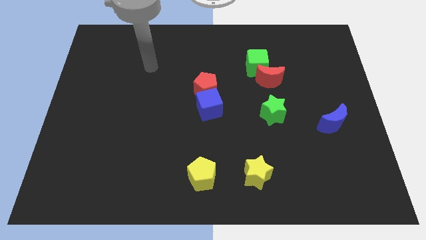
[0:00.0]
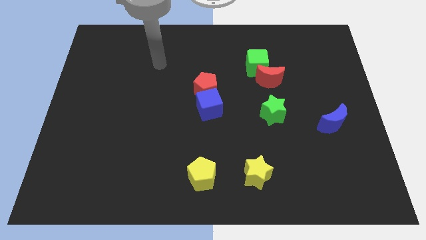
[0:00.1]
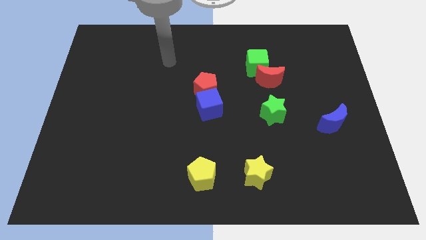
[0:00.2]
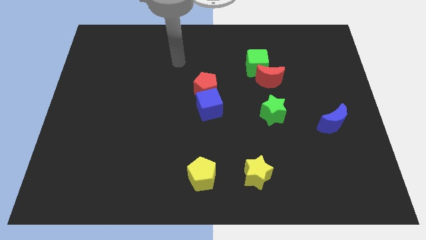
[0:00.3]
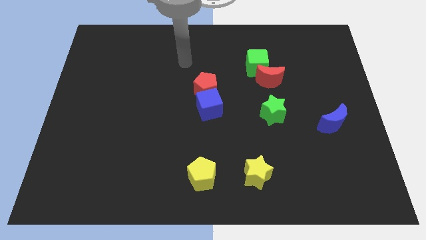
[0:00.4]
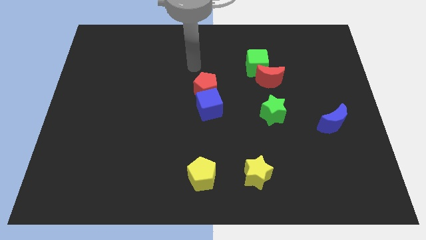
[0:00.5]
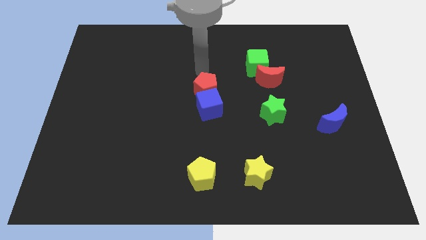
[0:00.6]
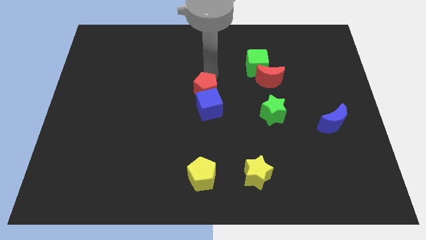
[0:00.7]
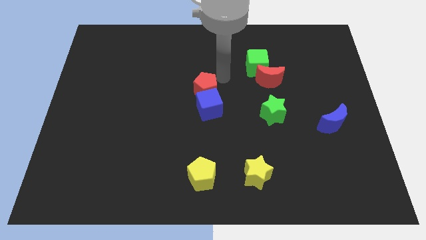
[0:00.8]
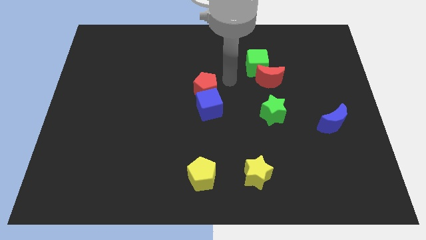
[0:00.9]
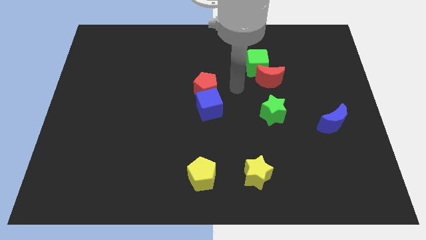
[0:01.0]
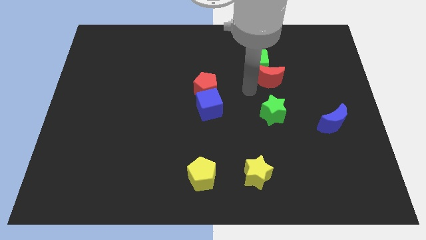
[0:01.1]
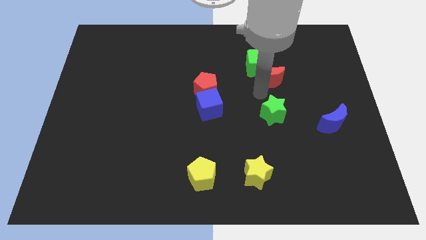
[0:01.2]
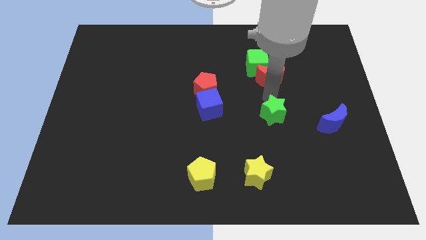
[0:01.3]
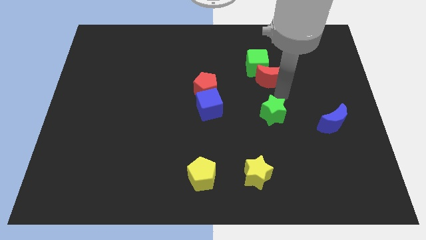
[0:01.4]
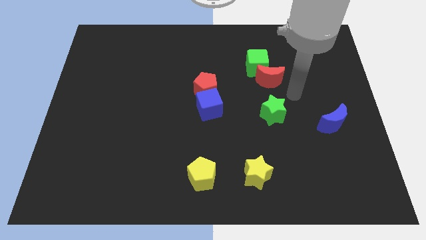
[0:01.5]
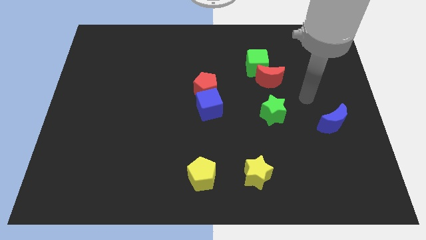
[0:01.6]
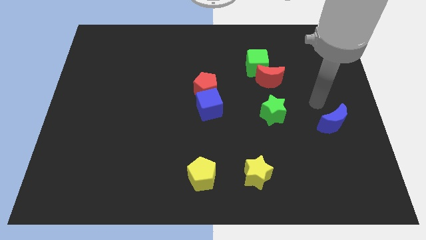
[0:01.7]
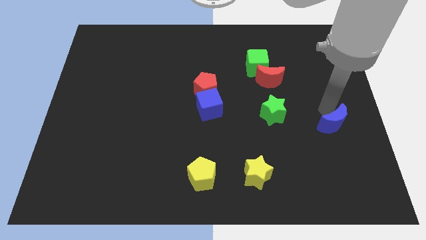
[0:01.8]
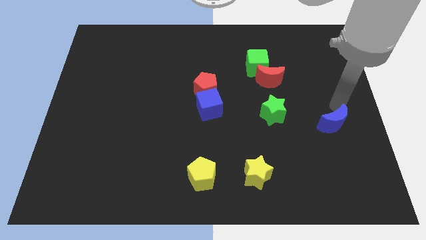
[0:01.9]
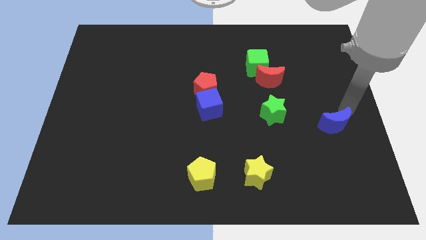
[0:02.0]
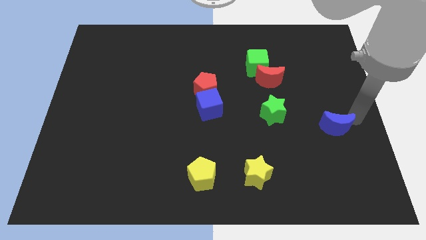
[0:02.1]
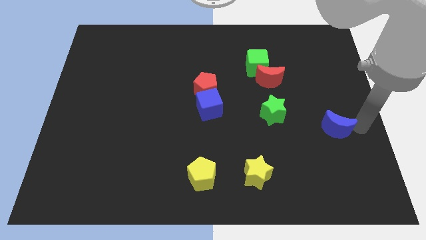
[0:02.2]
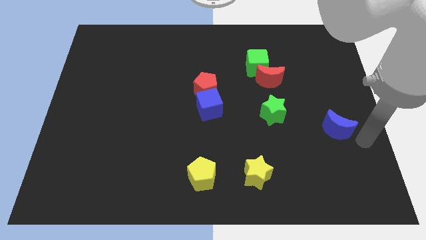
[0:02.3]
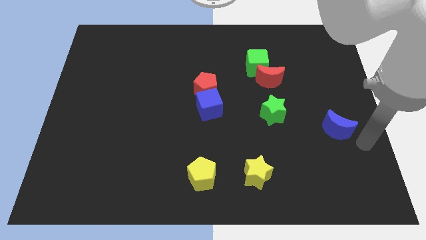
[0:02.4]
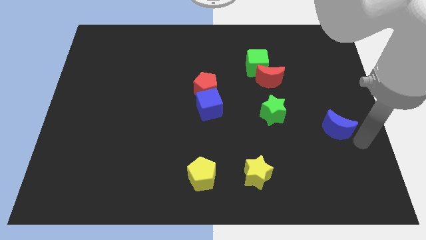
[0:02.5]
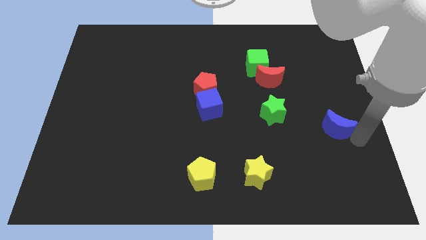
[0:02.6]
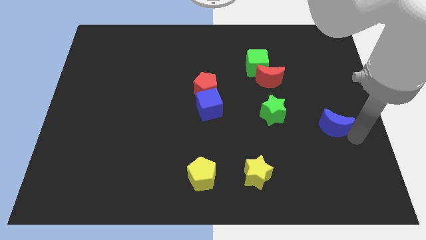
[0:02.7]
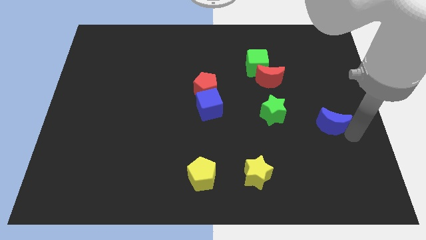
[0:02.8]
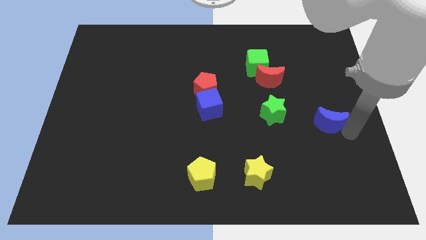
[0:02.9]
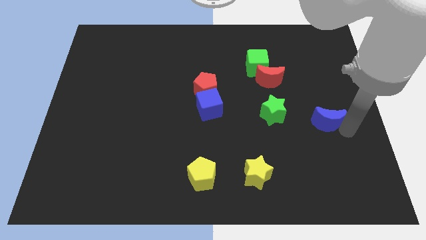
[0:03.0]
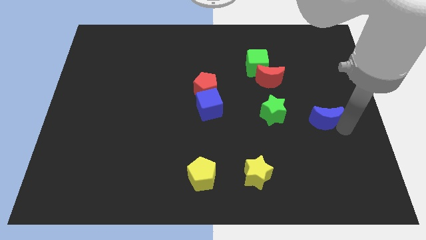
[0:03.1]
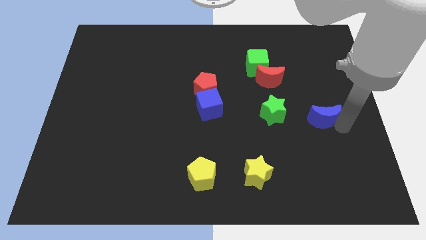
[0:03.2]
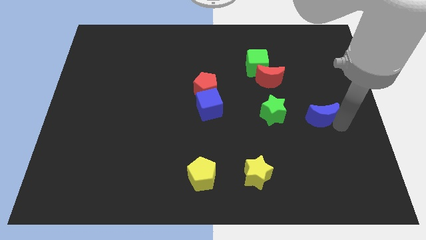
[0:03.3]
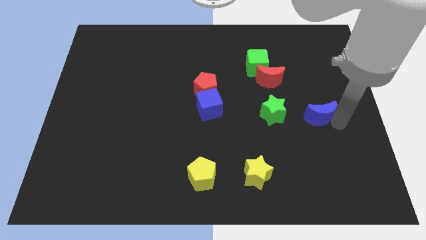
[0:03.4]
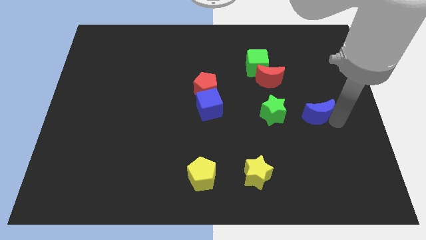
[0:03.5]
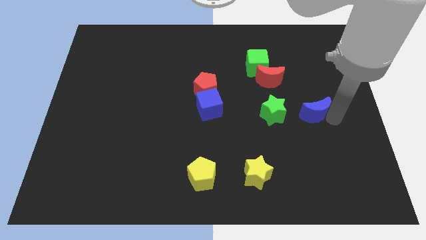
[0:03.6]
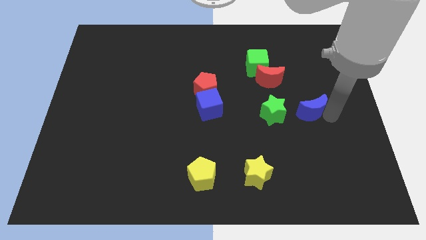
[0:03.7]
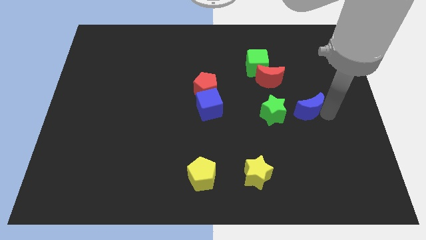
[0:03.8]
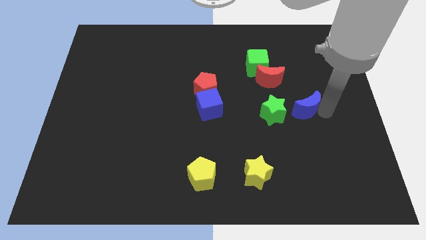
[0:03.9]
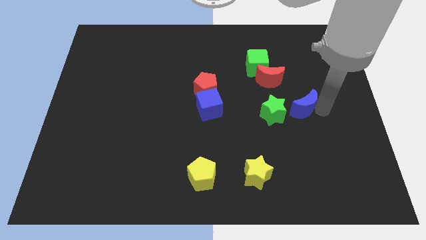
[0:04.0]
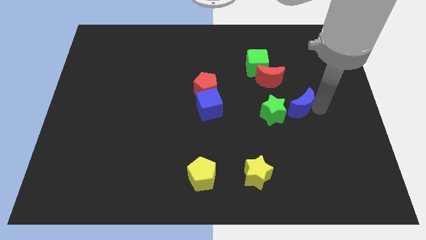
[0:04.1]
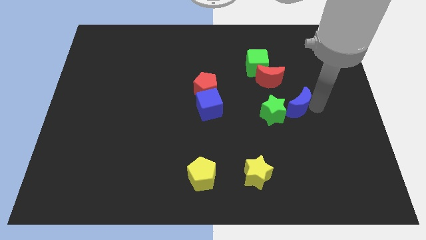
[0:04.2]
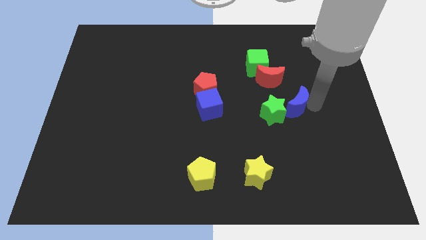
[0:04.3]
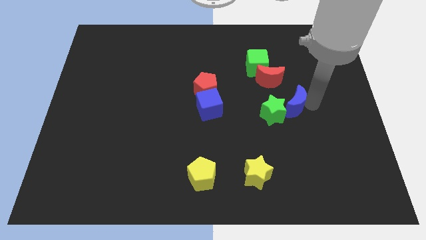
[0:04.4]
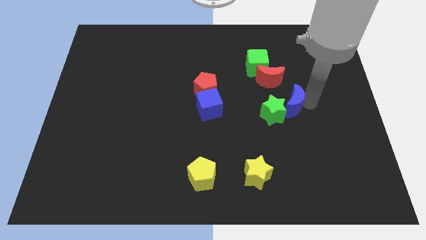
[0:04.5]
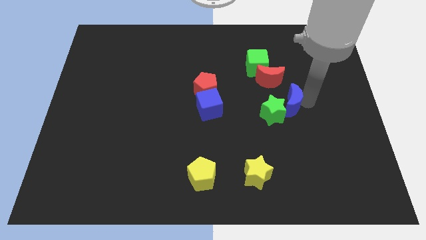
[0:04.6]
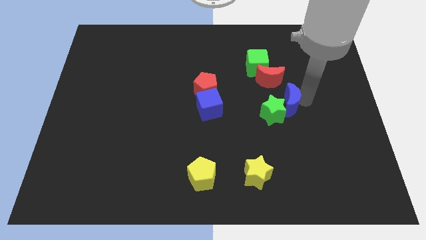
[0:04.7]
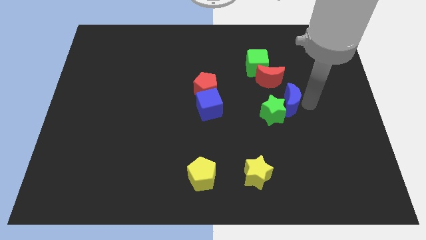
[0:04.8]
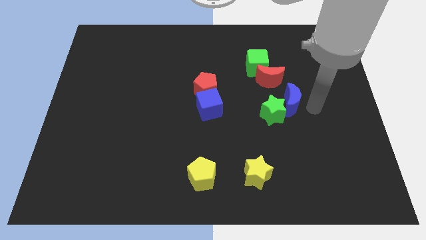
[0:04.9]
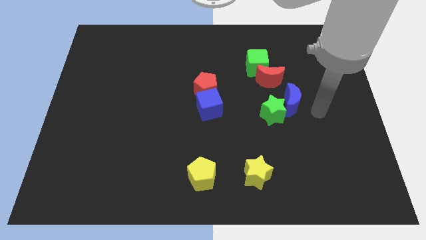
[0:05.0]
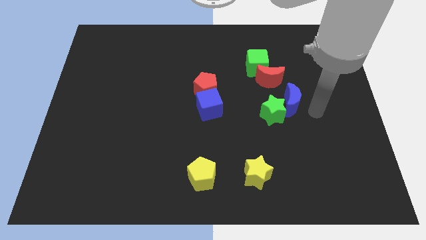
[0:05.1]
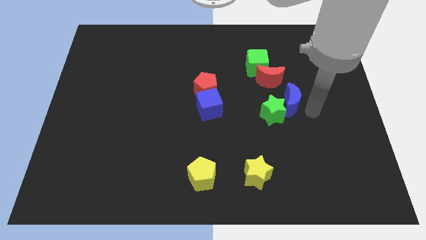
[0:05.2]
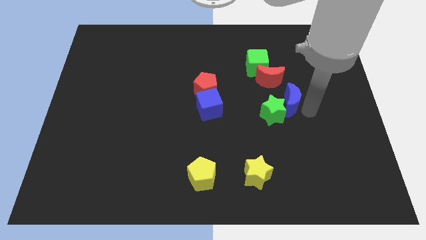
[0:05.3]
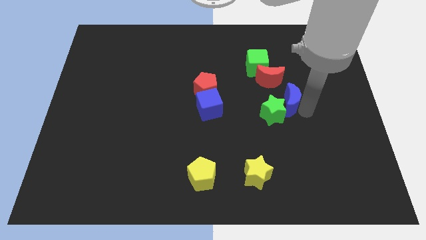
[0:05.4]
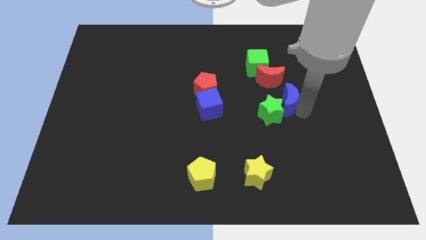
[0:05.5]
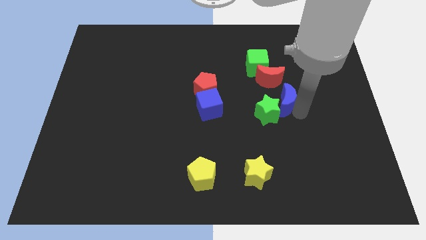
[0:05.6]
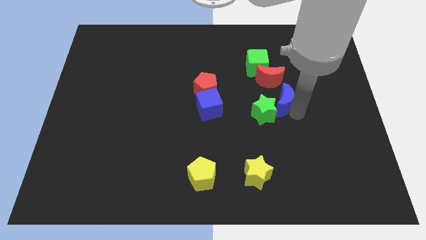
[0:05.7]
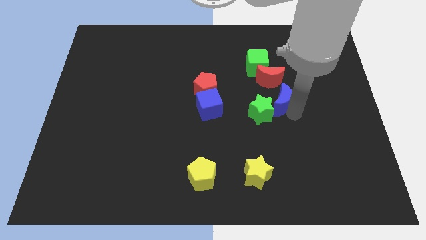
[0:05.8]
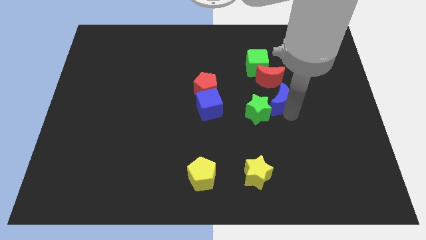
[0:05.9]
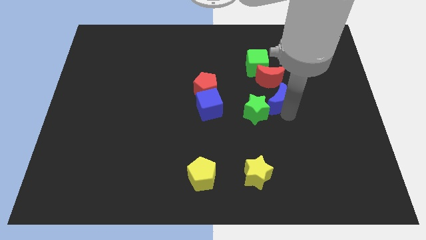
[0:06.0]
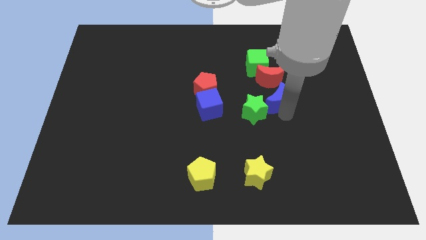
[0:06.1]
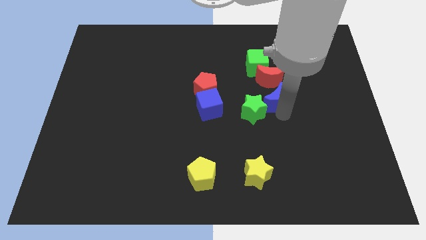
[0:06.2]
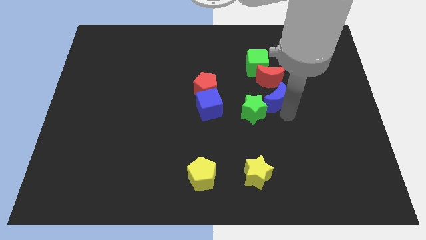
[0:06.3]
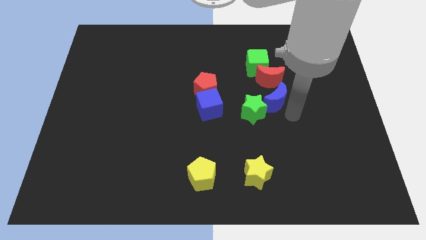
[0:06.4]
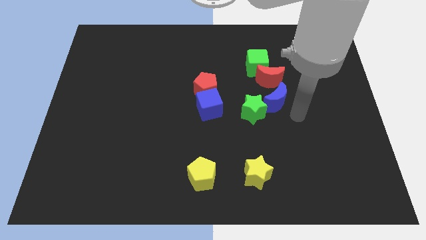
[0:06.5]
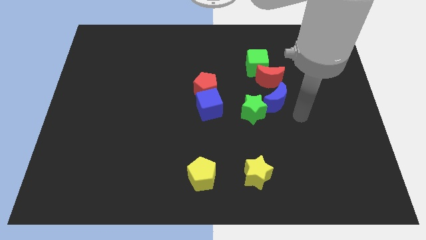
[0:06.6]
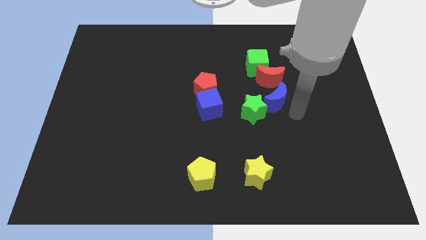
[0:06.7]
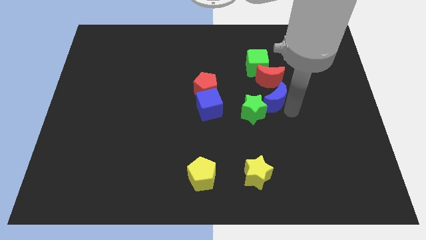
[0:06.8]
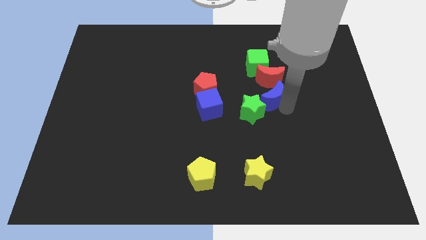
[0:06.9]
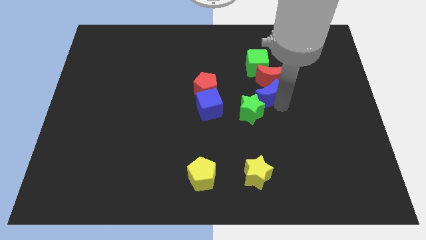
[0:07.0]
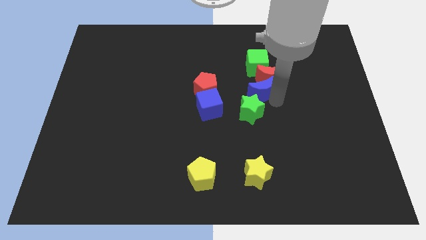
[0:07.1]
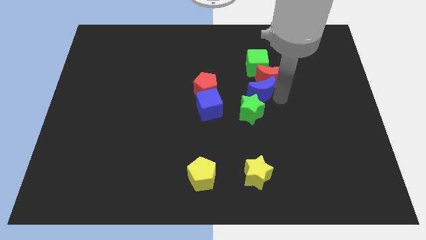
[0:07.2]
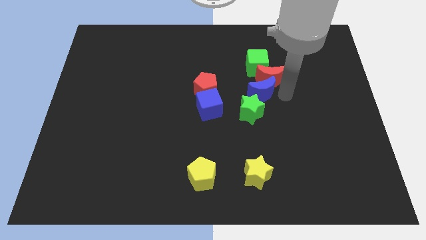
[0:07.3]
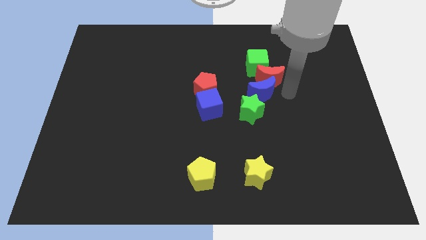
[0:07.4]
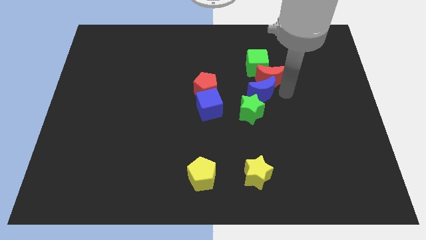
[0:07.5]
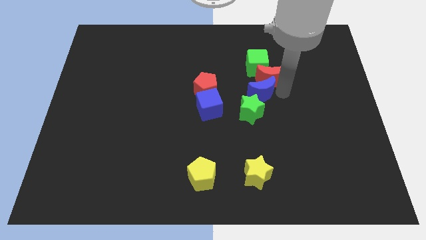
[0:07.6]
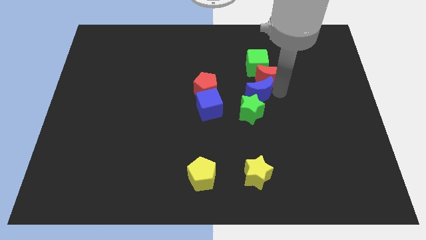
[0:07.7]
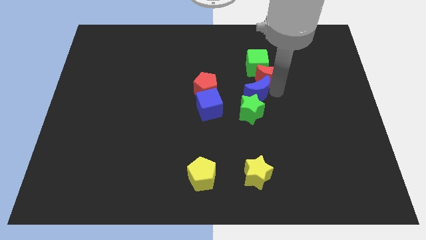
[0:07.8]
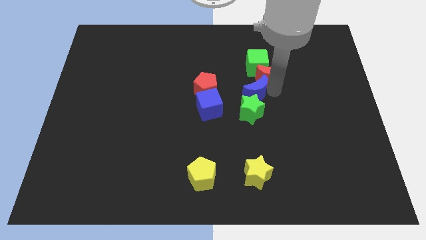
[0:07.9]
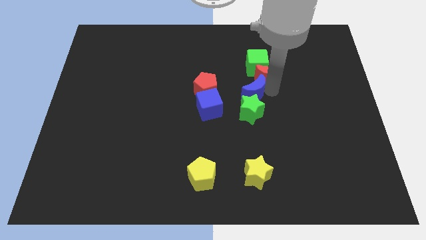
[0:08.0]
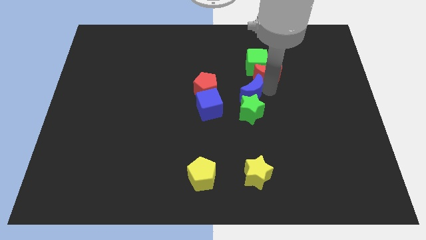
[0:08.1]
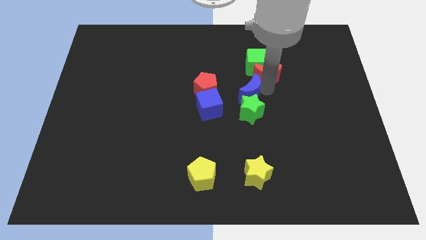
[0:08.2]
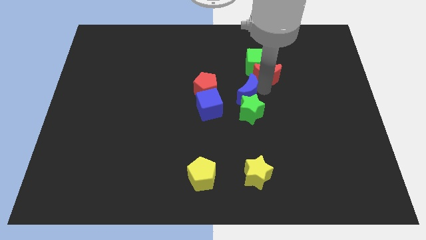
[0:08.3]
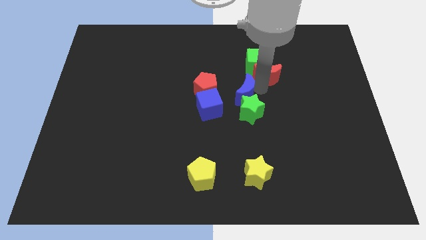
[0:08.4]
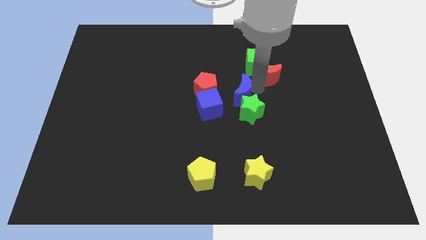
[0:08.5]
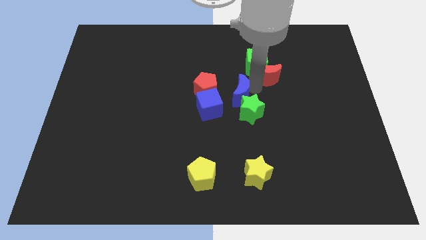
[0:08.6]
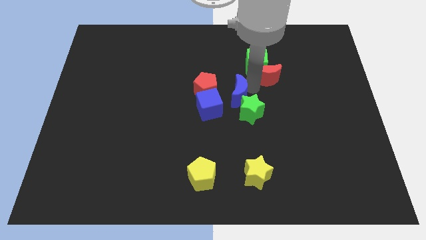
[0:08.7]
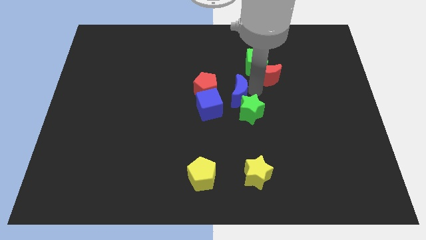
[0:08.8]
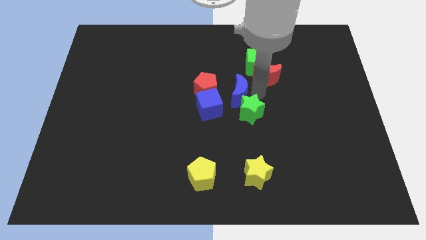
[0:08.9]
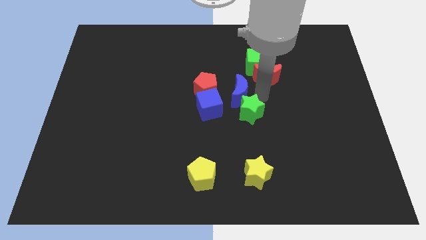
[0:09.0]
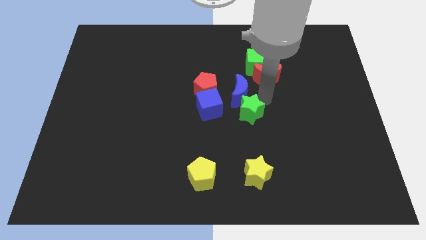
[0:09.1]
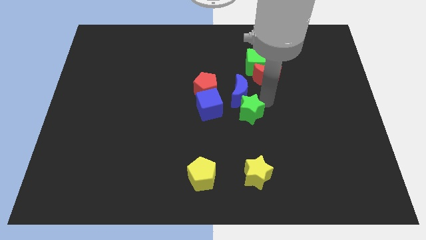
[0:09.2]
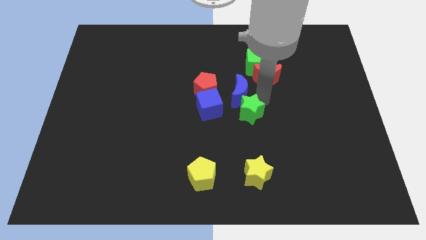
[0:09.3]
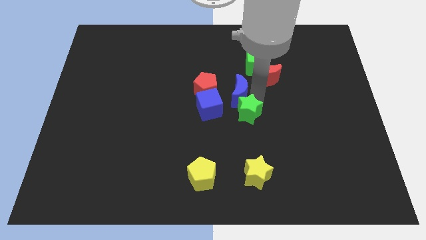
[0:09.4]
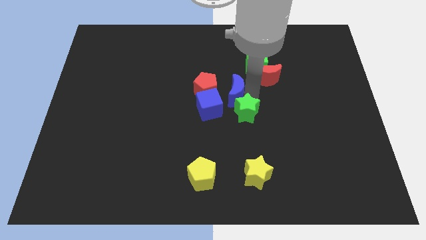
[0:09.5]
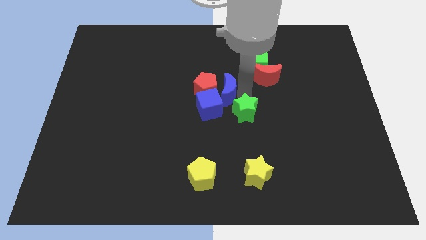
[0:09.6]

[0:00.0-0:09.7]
put the blue moon to the red pentagon
